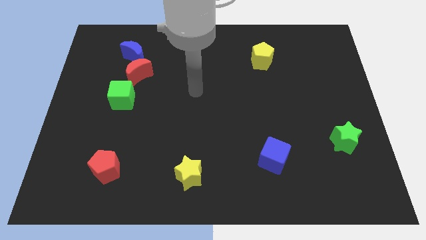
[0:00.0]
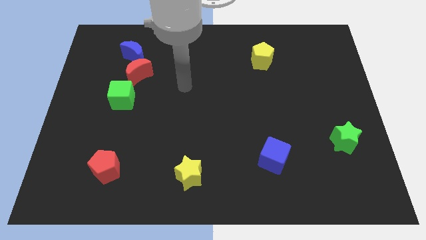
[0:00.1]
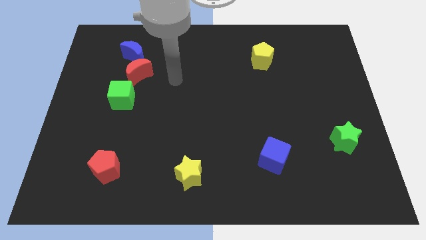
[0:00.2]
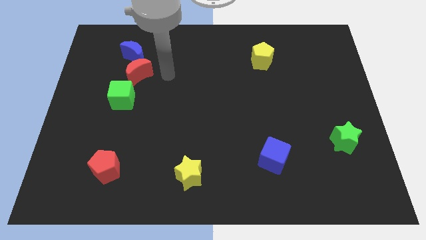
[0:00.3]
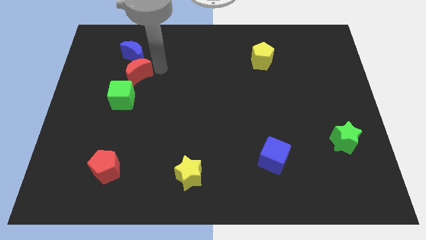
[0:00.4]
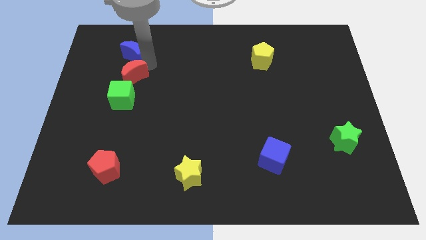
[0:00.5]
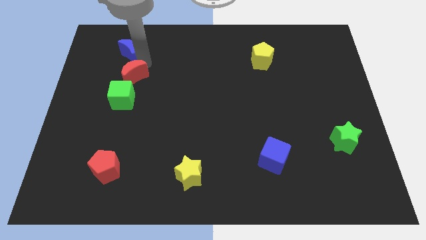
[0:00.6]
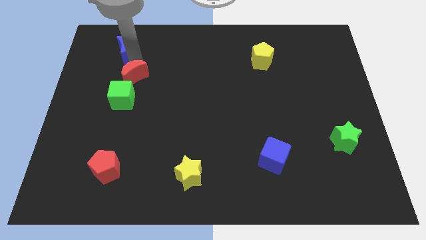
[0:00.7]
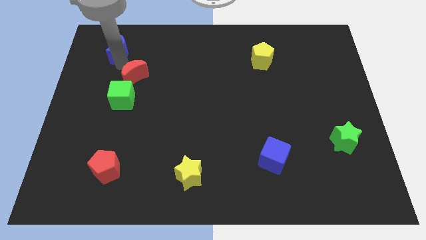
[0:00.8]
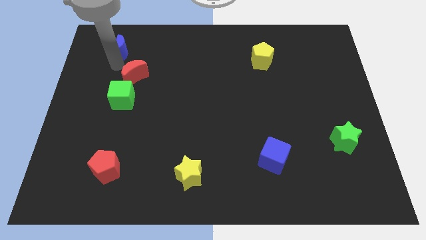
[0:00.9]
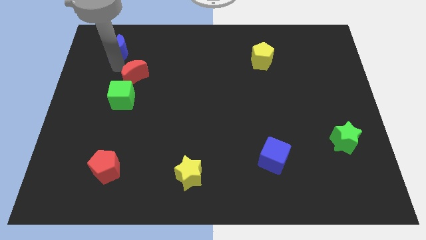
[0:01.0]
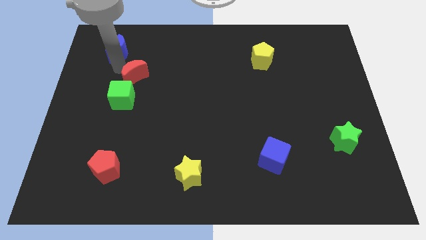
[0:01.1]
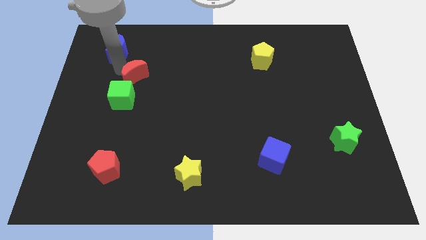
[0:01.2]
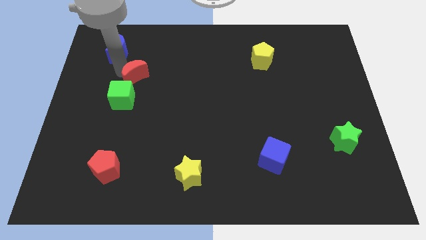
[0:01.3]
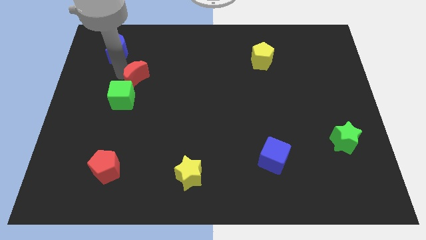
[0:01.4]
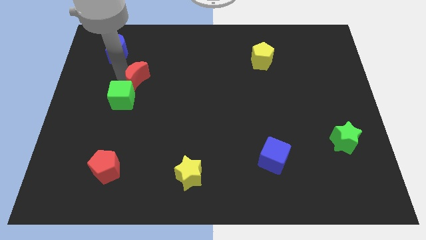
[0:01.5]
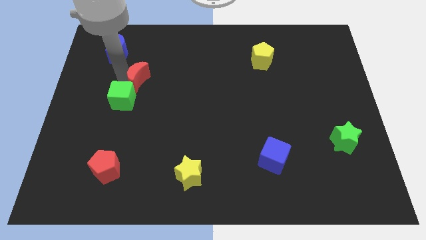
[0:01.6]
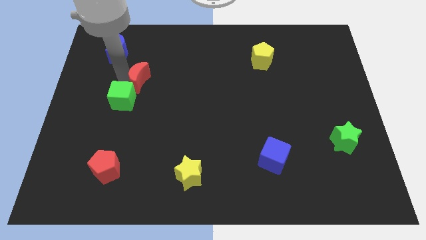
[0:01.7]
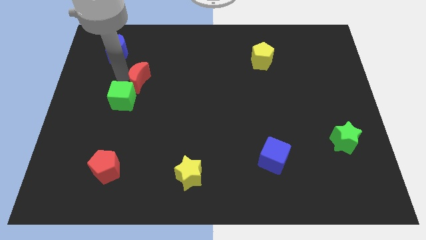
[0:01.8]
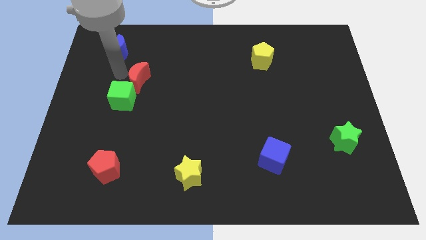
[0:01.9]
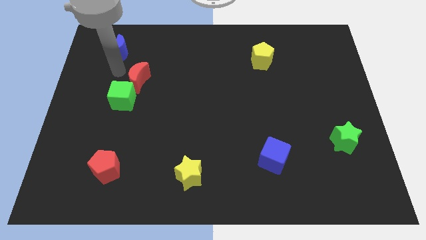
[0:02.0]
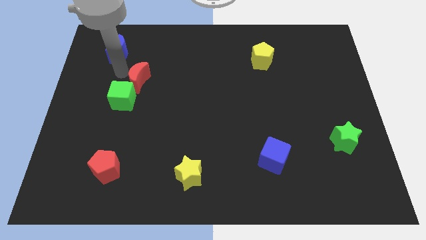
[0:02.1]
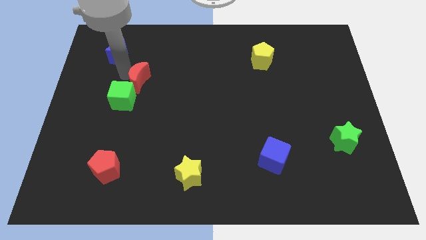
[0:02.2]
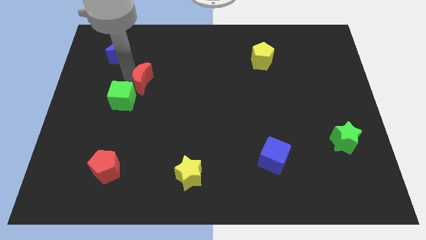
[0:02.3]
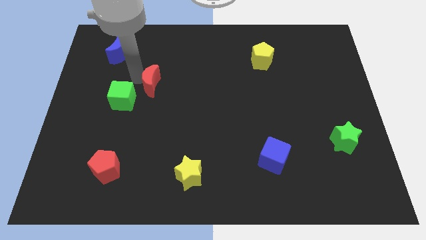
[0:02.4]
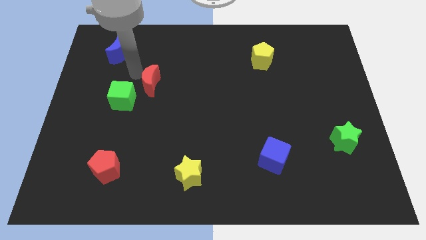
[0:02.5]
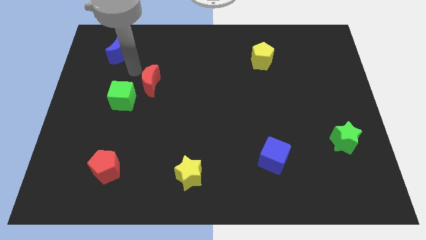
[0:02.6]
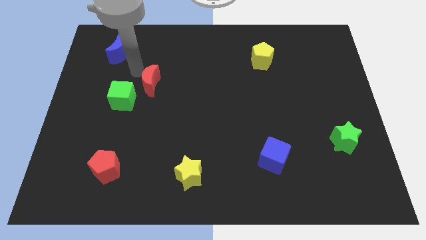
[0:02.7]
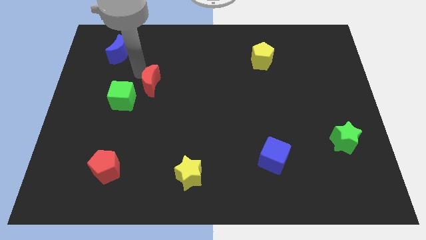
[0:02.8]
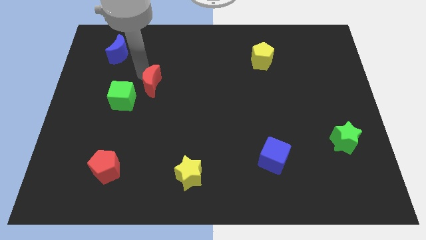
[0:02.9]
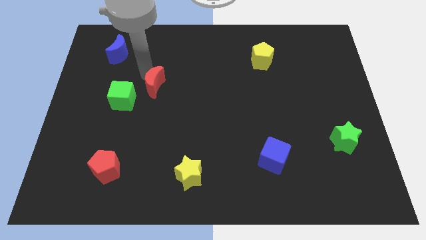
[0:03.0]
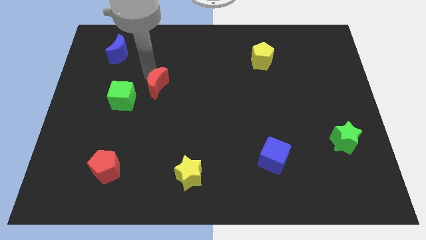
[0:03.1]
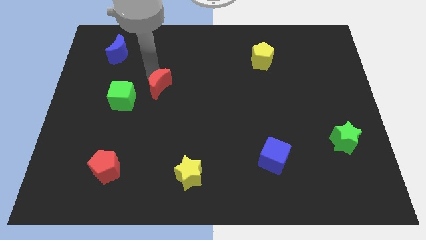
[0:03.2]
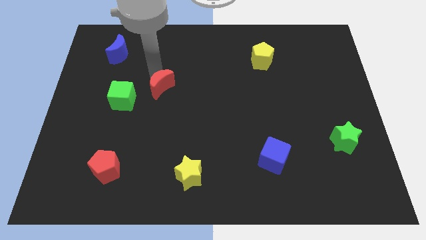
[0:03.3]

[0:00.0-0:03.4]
slide the red moon a bit down and right diagonally

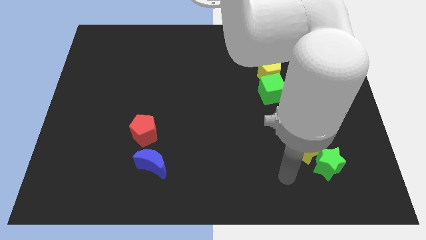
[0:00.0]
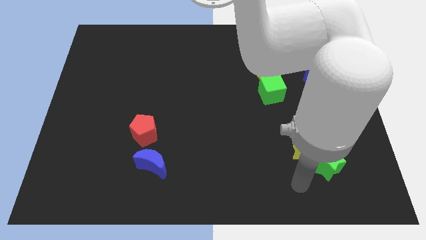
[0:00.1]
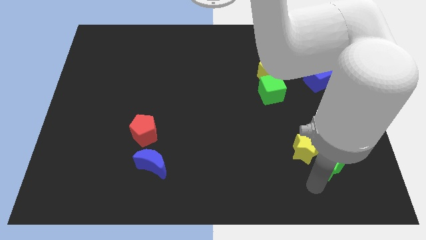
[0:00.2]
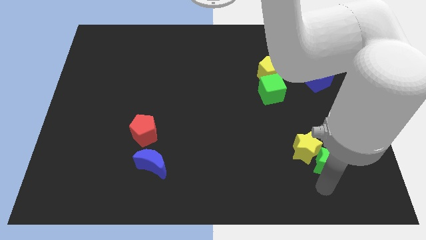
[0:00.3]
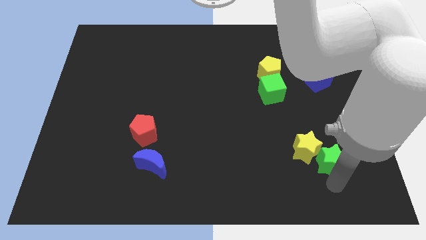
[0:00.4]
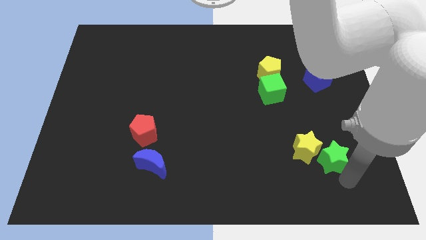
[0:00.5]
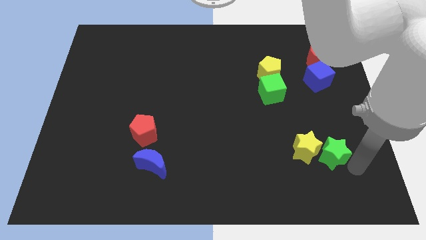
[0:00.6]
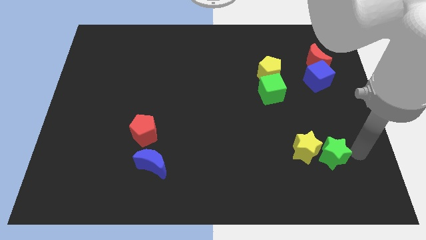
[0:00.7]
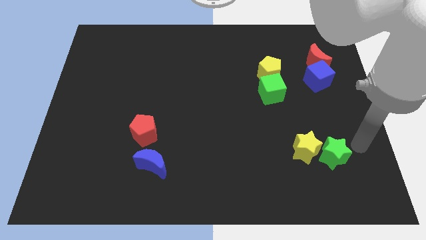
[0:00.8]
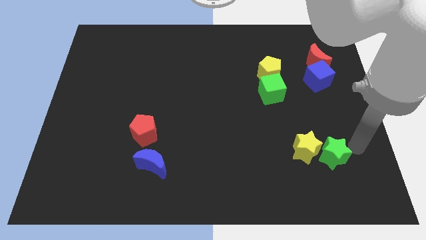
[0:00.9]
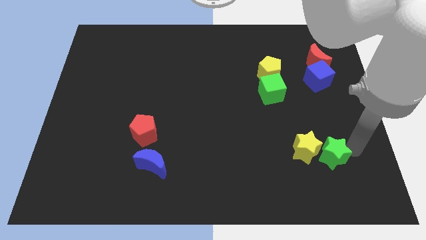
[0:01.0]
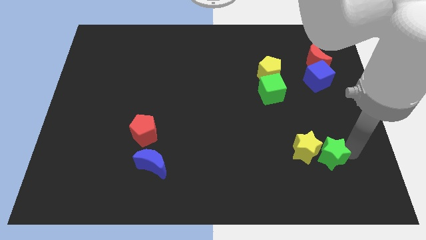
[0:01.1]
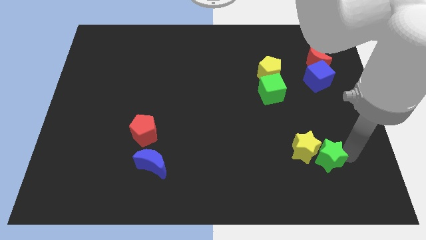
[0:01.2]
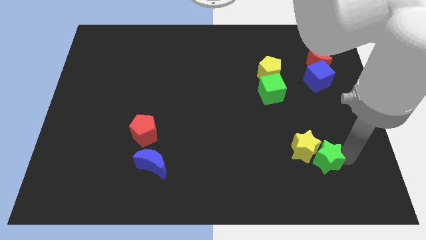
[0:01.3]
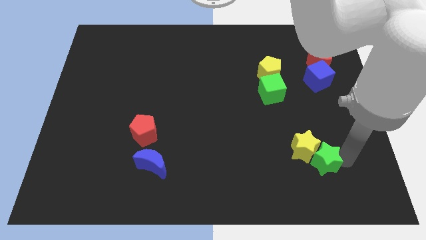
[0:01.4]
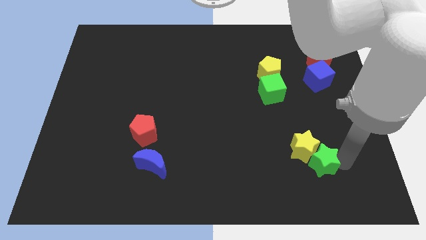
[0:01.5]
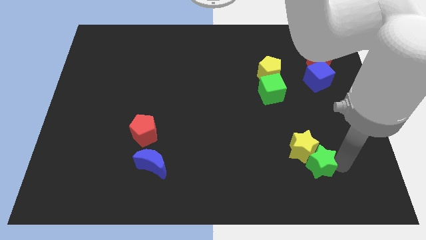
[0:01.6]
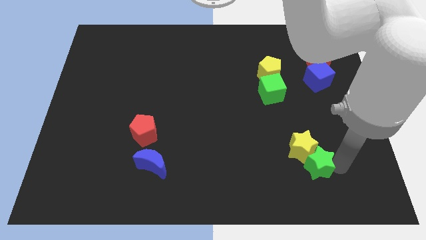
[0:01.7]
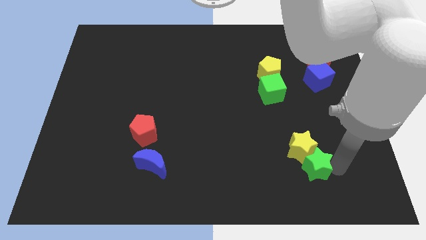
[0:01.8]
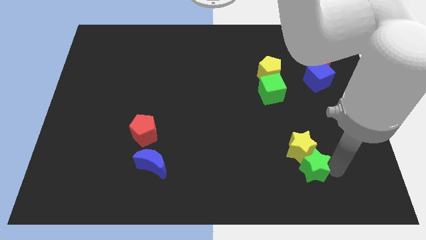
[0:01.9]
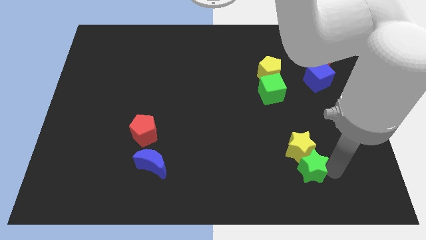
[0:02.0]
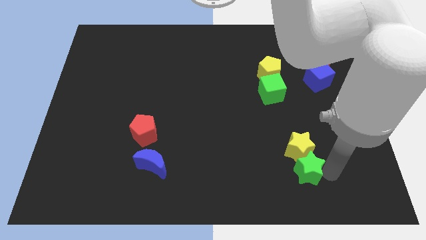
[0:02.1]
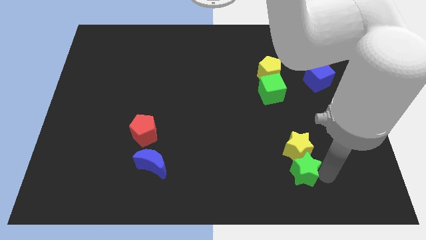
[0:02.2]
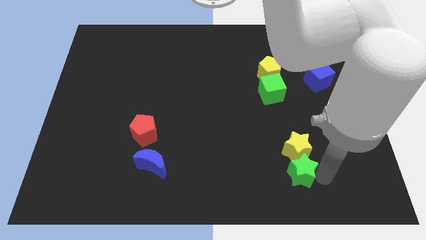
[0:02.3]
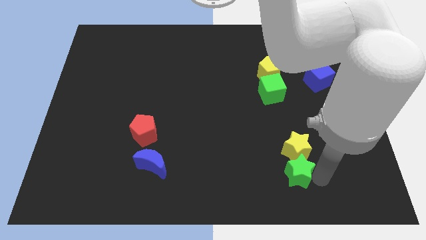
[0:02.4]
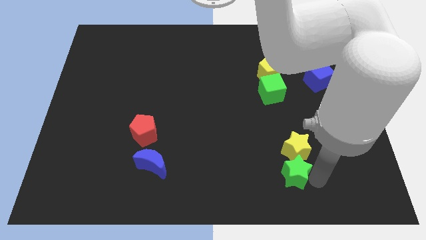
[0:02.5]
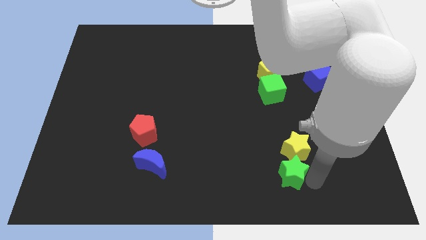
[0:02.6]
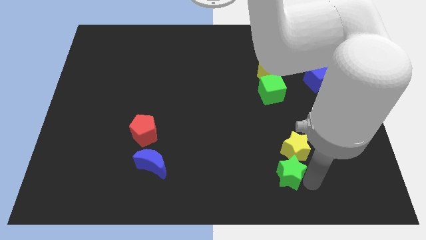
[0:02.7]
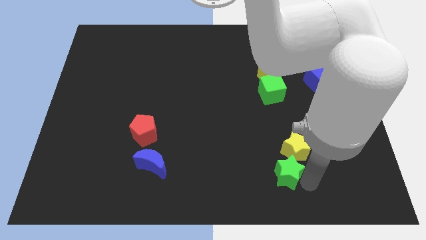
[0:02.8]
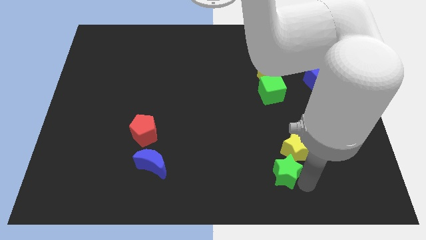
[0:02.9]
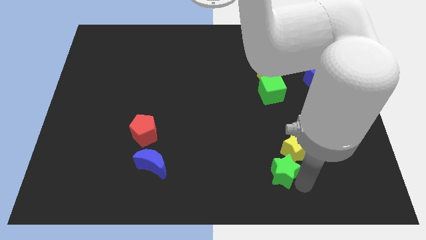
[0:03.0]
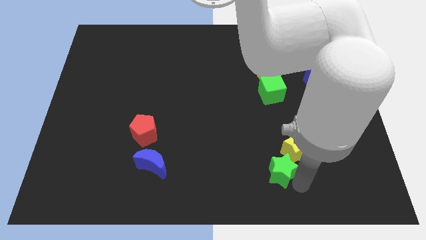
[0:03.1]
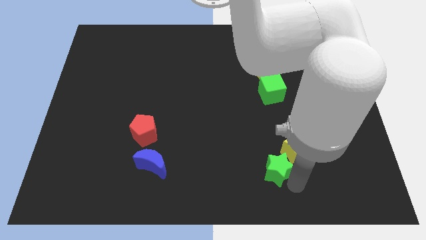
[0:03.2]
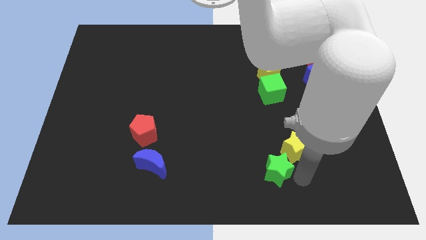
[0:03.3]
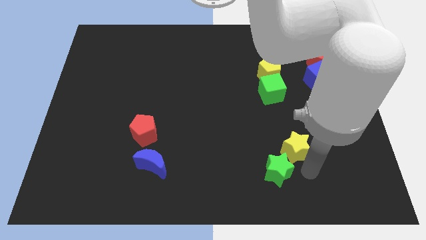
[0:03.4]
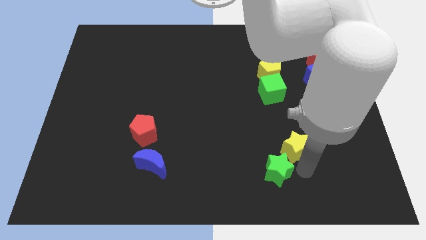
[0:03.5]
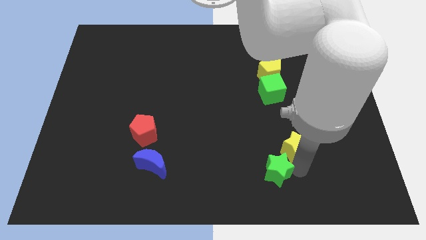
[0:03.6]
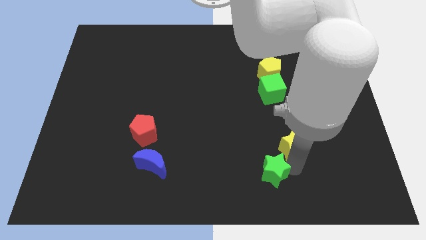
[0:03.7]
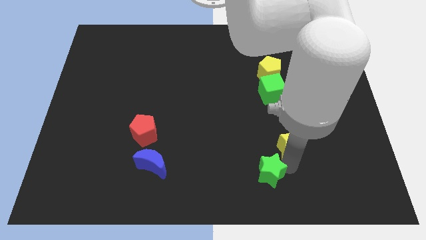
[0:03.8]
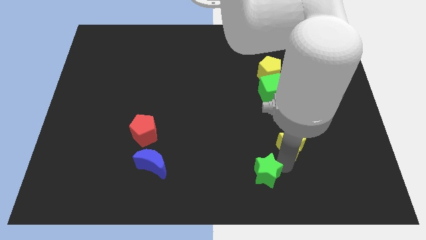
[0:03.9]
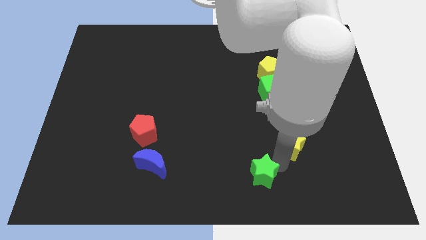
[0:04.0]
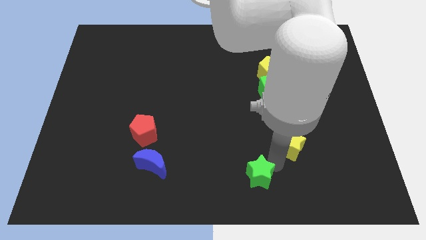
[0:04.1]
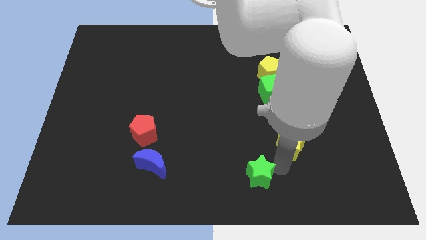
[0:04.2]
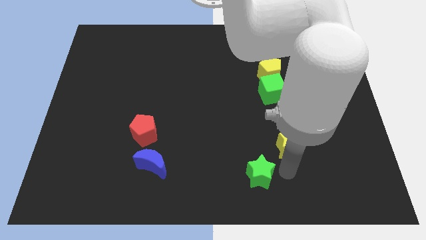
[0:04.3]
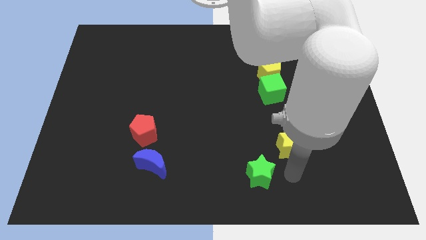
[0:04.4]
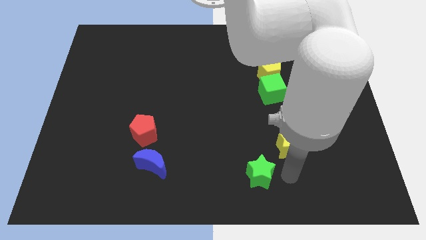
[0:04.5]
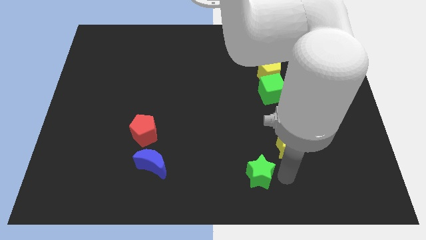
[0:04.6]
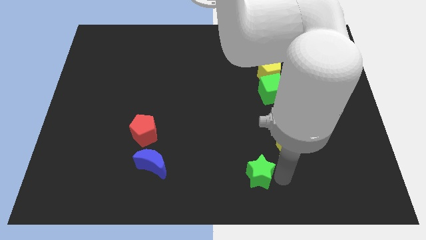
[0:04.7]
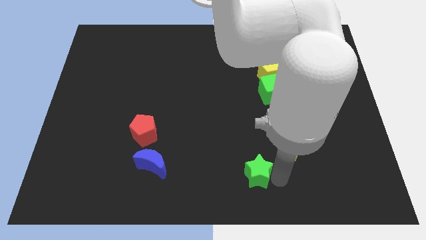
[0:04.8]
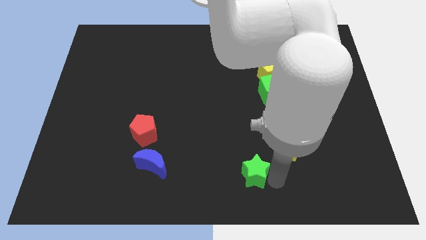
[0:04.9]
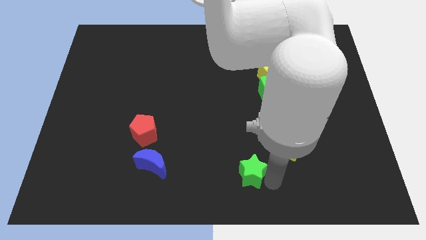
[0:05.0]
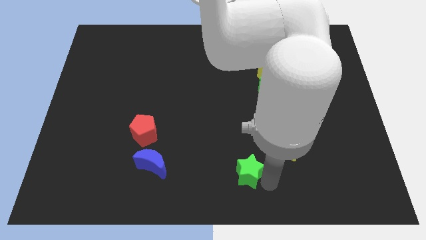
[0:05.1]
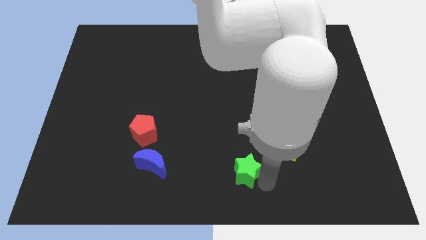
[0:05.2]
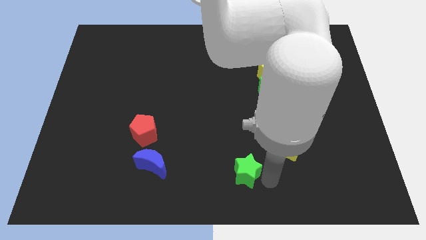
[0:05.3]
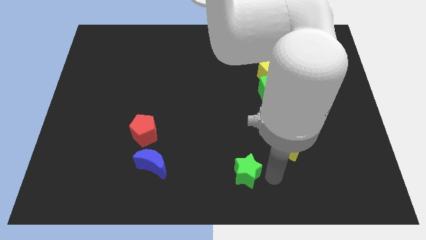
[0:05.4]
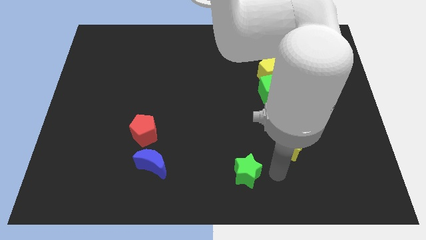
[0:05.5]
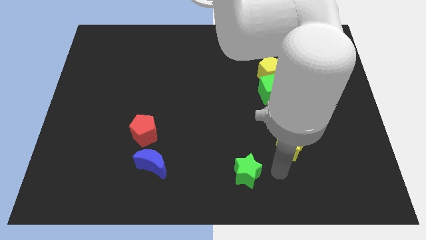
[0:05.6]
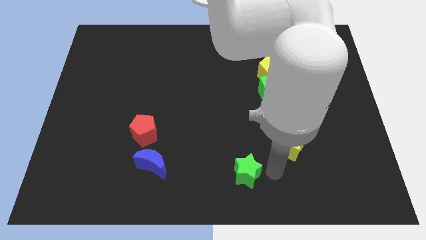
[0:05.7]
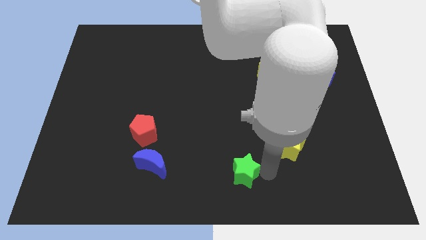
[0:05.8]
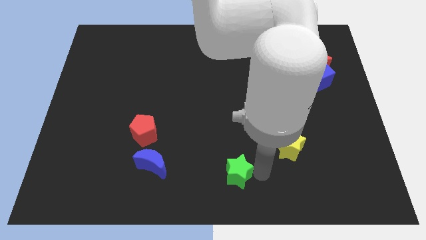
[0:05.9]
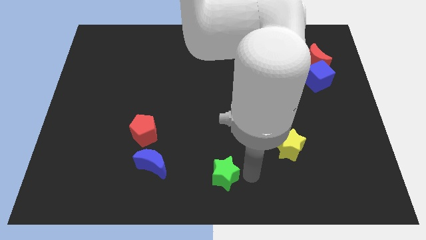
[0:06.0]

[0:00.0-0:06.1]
slide the green star to the left
